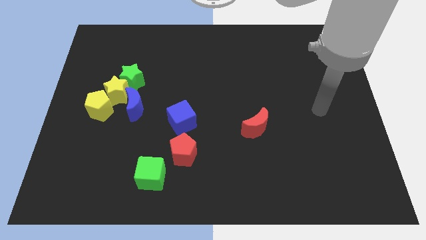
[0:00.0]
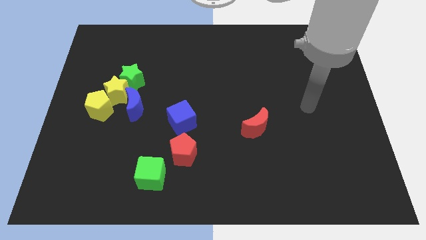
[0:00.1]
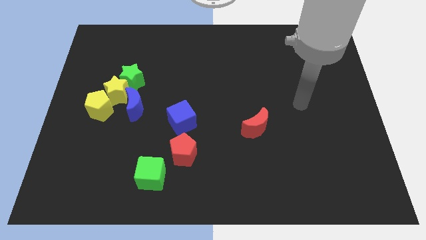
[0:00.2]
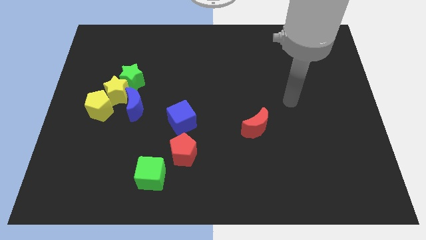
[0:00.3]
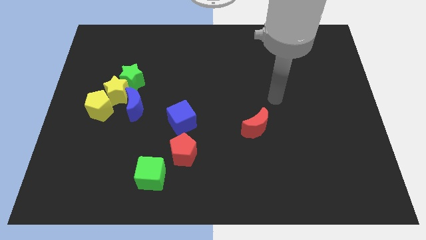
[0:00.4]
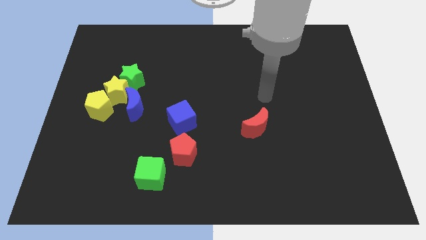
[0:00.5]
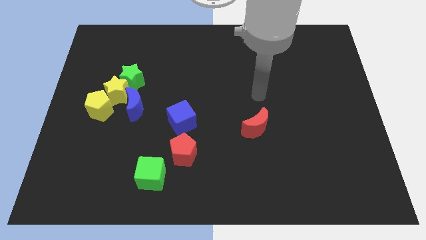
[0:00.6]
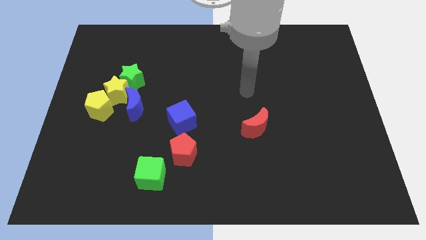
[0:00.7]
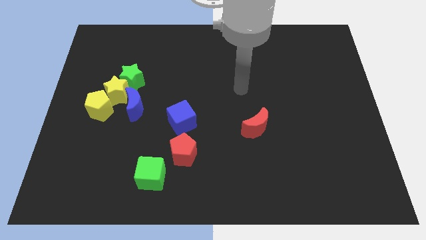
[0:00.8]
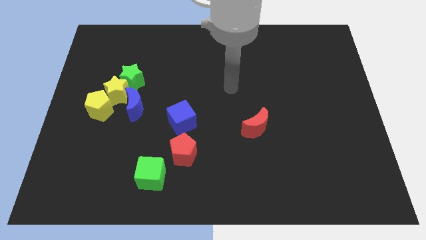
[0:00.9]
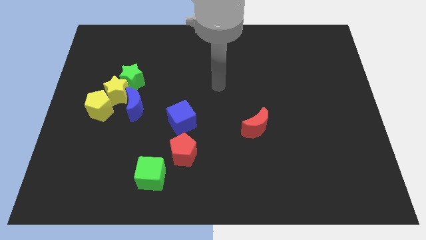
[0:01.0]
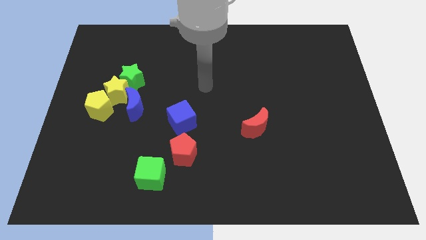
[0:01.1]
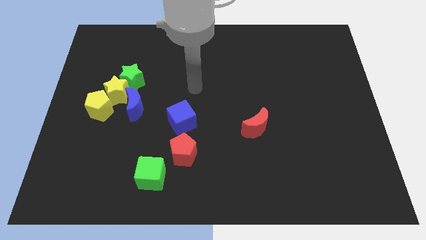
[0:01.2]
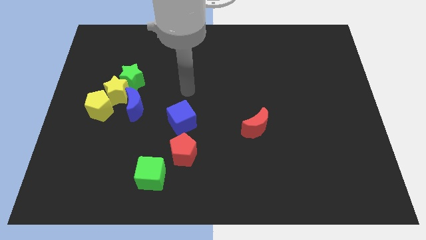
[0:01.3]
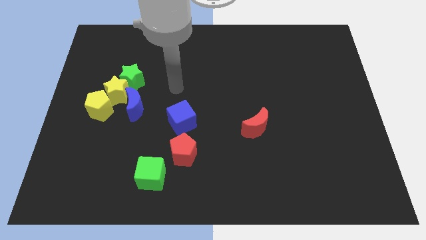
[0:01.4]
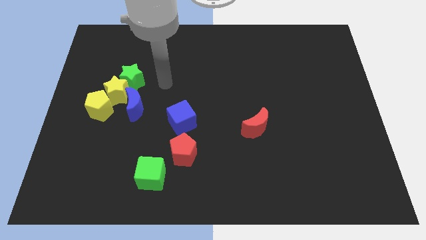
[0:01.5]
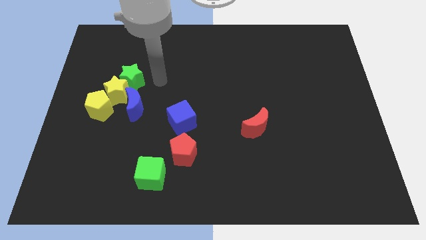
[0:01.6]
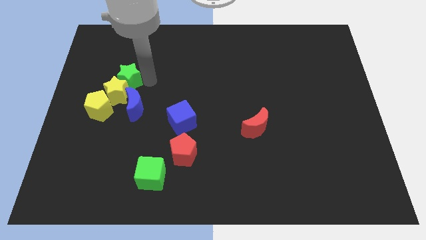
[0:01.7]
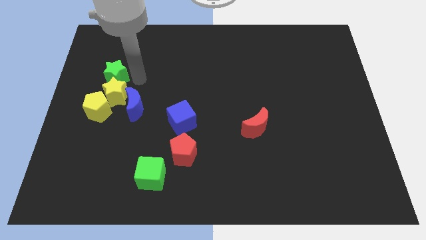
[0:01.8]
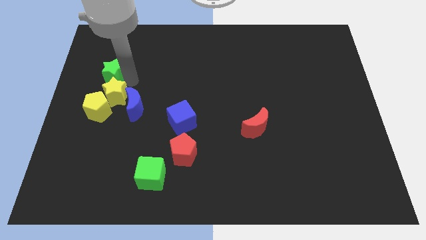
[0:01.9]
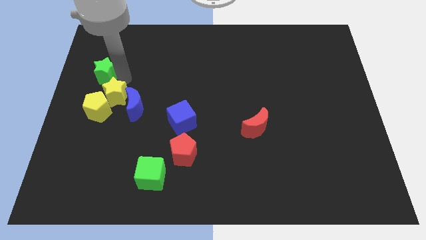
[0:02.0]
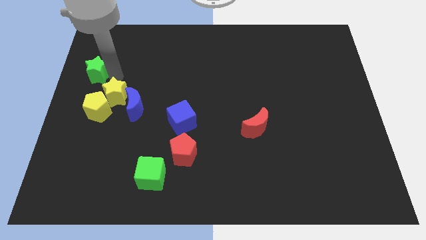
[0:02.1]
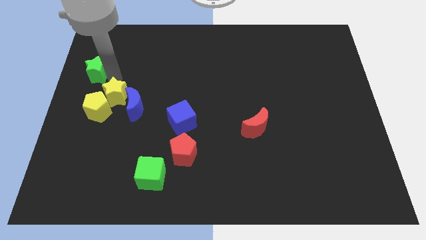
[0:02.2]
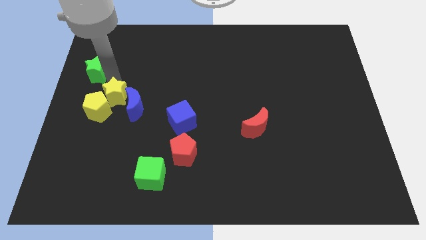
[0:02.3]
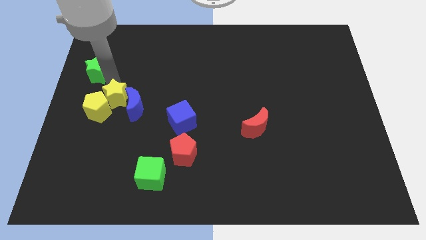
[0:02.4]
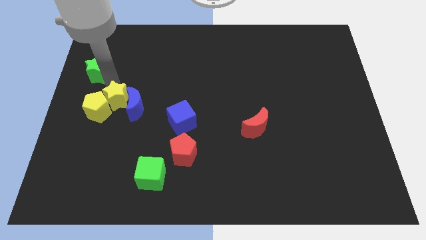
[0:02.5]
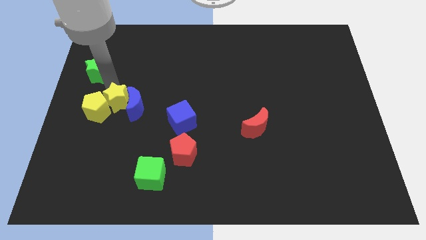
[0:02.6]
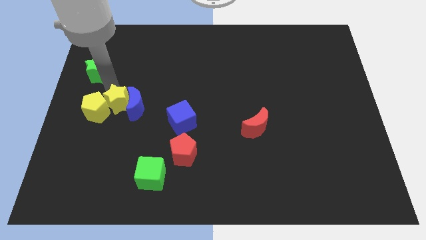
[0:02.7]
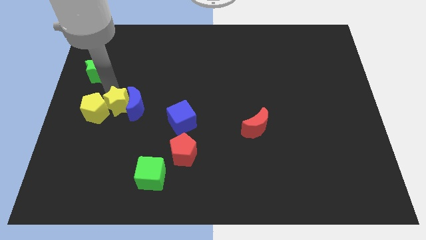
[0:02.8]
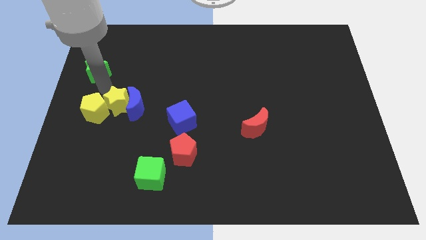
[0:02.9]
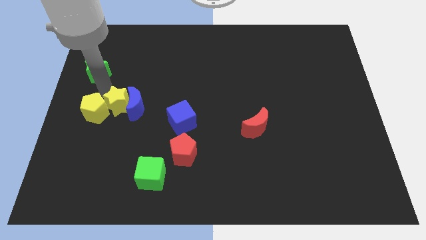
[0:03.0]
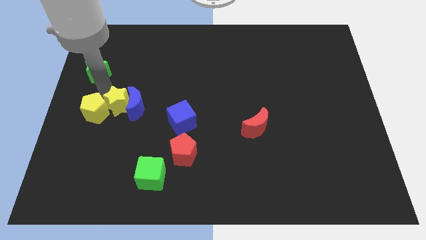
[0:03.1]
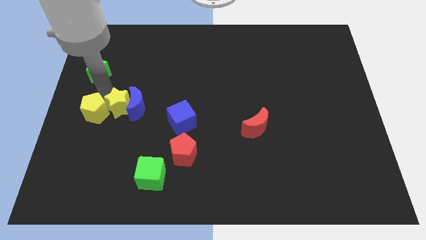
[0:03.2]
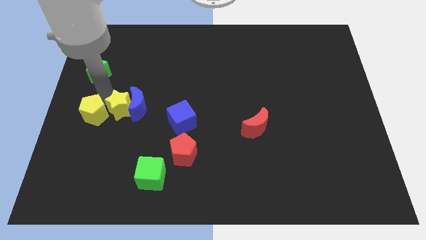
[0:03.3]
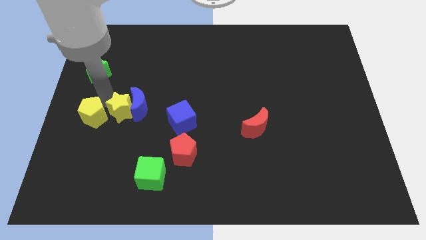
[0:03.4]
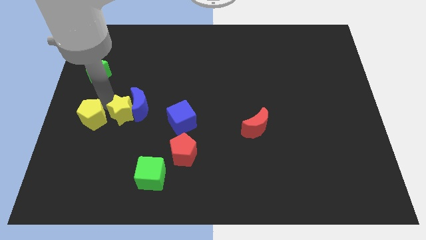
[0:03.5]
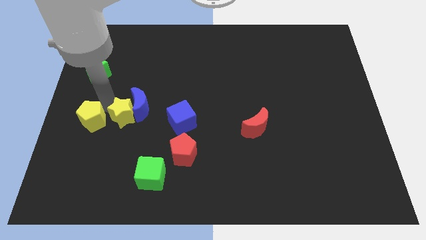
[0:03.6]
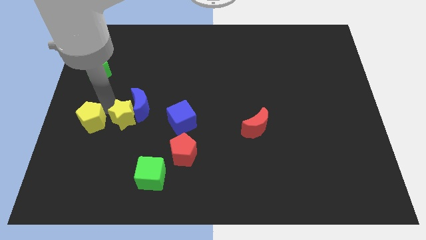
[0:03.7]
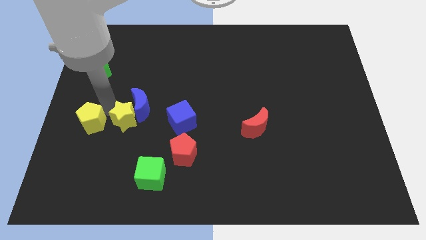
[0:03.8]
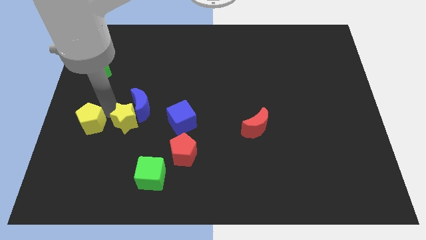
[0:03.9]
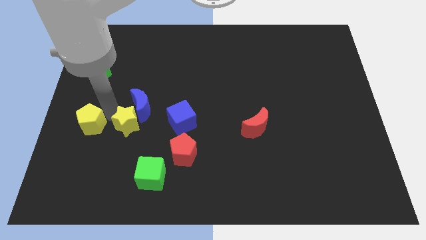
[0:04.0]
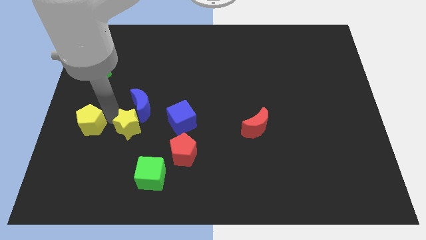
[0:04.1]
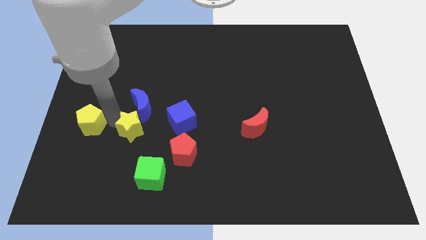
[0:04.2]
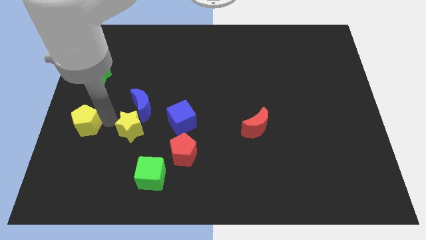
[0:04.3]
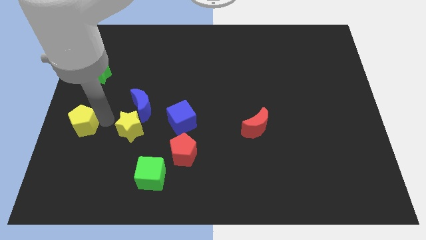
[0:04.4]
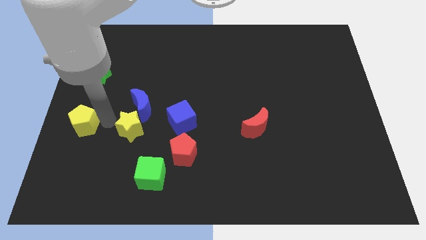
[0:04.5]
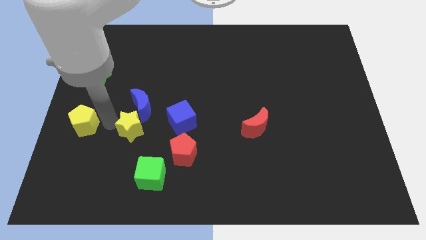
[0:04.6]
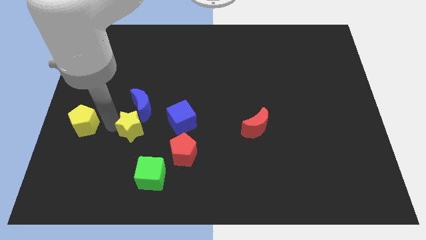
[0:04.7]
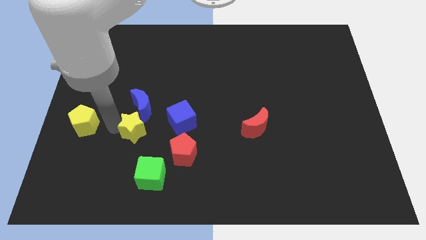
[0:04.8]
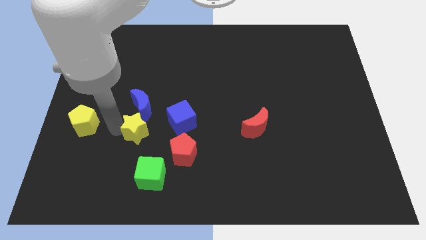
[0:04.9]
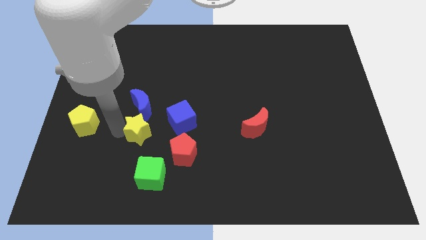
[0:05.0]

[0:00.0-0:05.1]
move the yellow star diagonally down and to the left of the blue cube

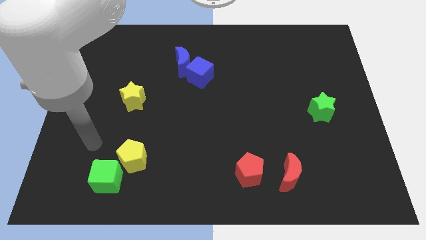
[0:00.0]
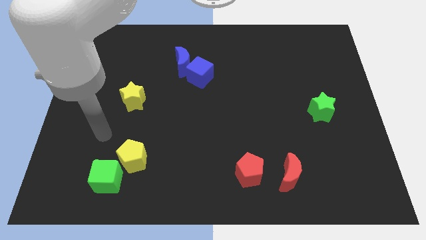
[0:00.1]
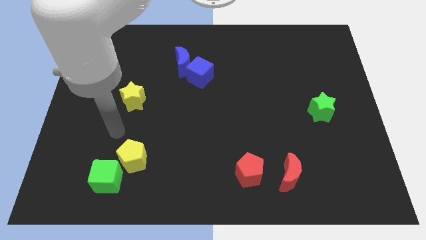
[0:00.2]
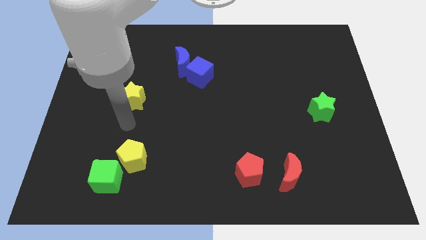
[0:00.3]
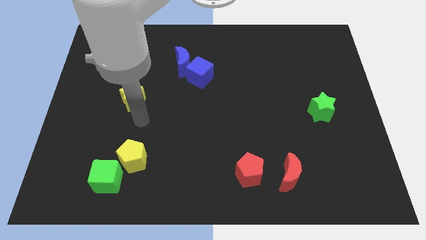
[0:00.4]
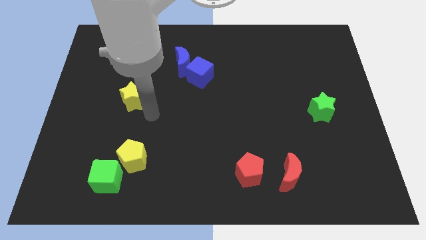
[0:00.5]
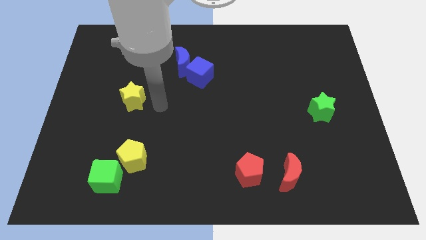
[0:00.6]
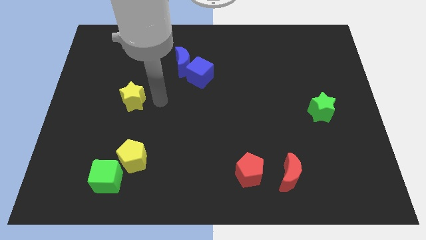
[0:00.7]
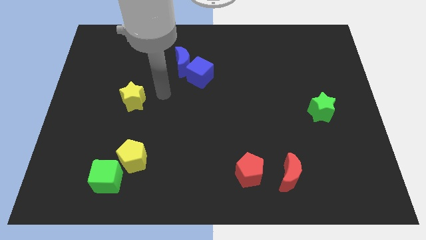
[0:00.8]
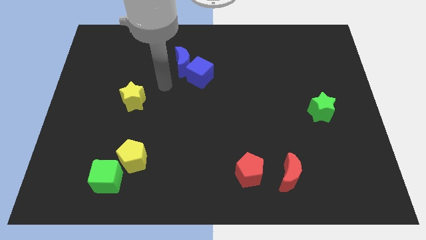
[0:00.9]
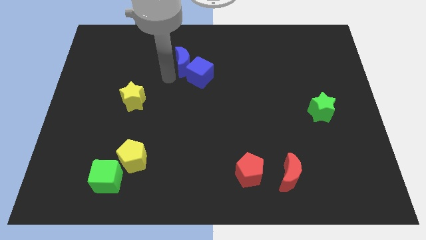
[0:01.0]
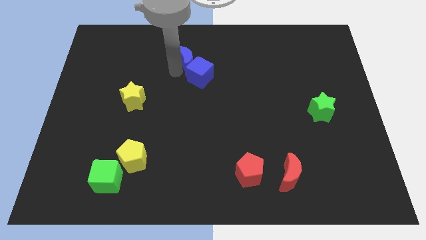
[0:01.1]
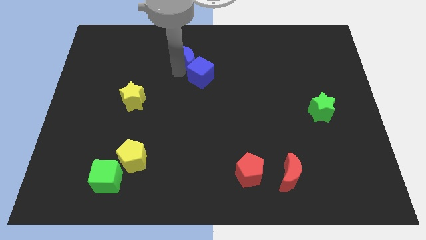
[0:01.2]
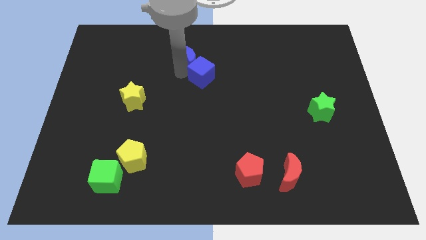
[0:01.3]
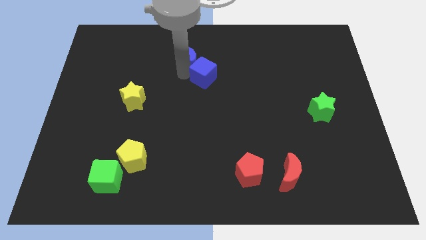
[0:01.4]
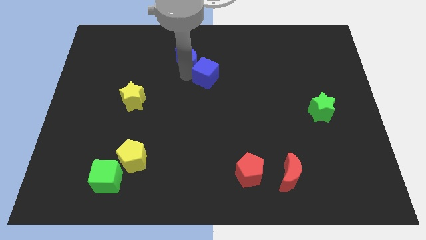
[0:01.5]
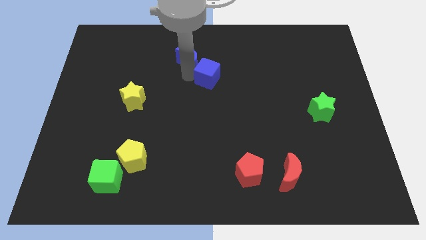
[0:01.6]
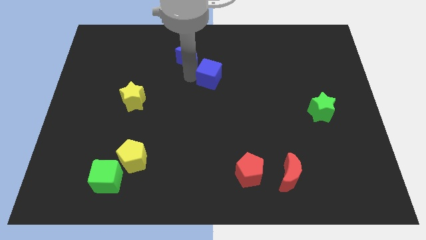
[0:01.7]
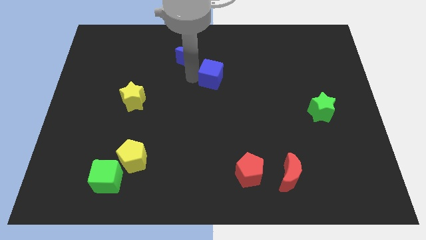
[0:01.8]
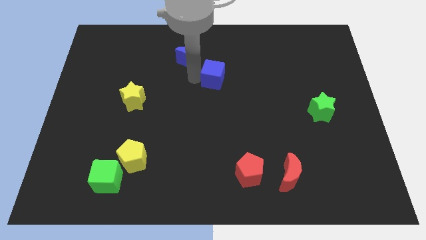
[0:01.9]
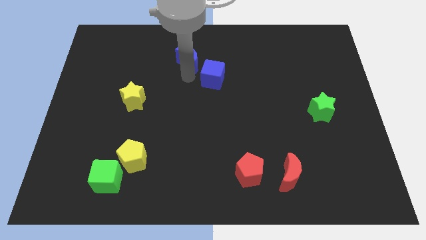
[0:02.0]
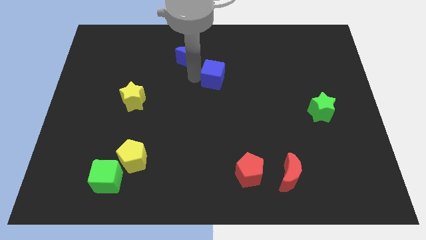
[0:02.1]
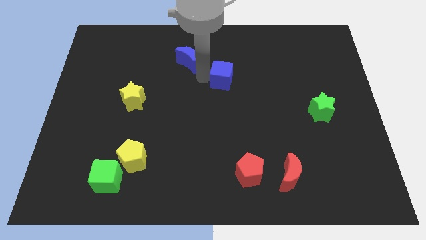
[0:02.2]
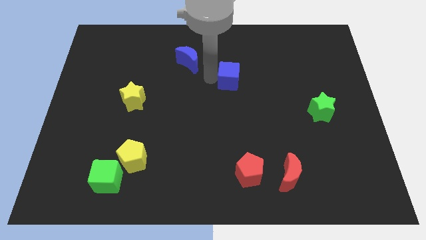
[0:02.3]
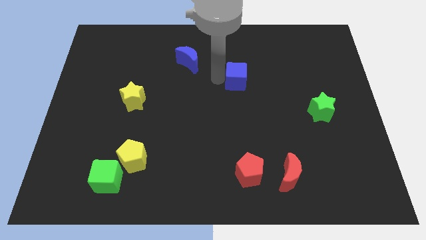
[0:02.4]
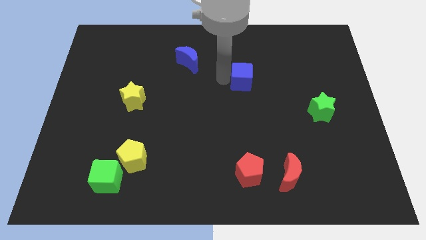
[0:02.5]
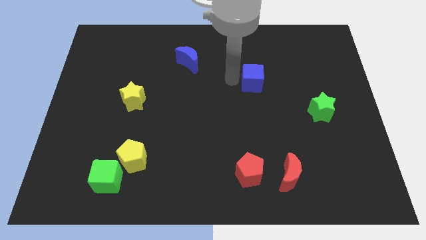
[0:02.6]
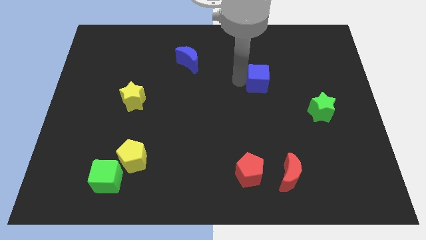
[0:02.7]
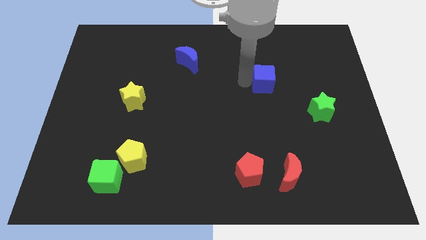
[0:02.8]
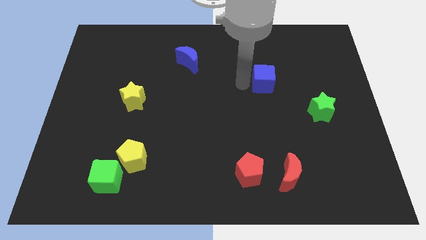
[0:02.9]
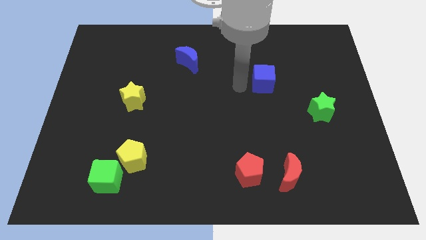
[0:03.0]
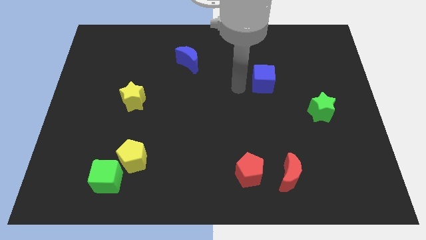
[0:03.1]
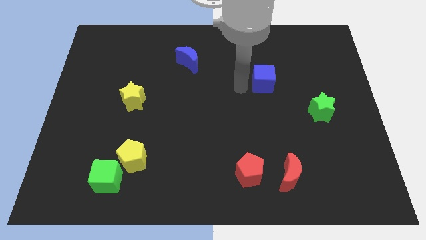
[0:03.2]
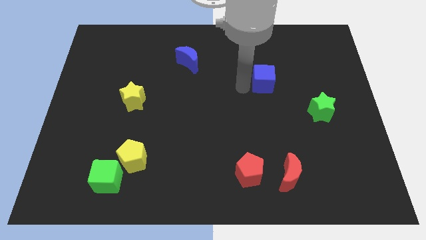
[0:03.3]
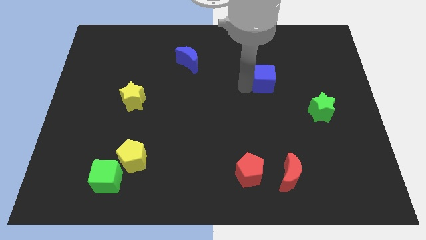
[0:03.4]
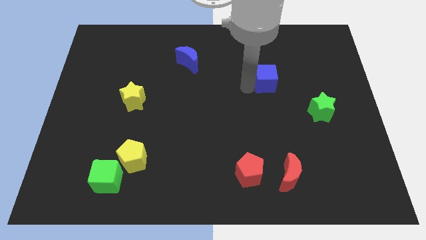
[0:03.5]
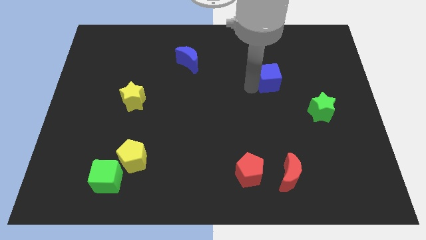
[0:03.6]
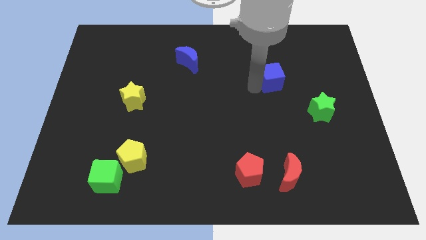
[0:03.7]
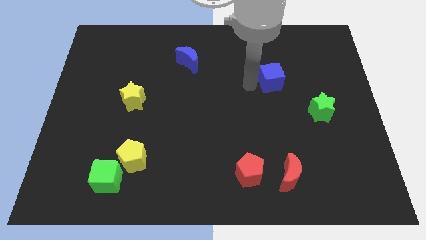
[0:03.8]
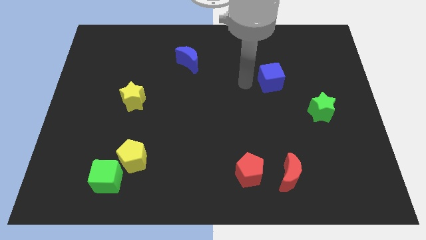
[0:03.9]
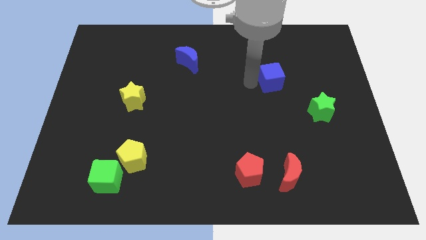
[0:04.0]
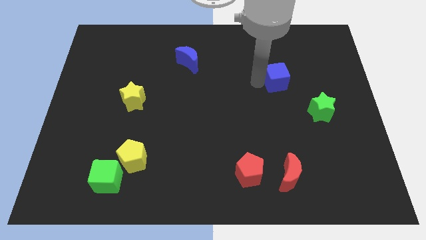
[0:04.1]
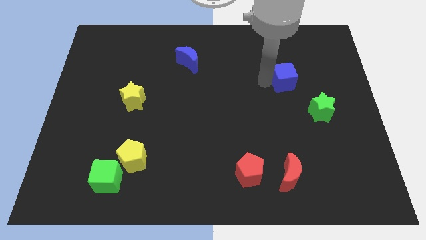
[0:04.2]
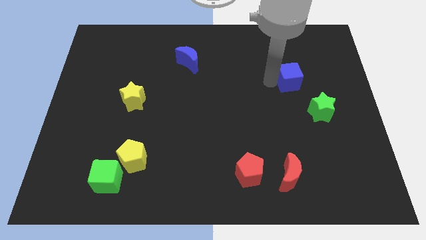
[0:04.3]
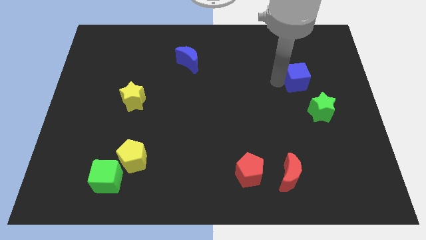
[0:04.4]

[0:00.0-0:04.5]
push the blue cube to the top side of the green star
